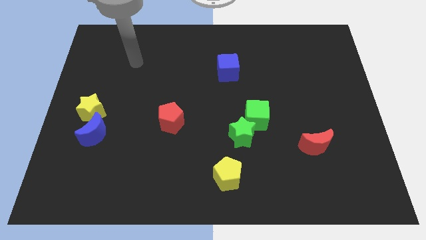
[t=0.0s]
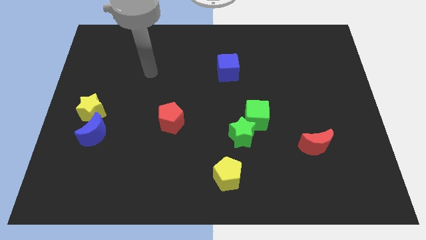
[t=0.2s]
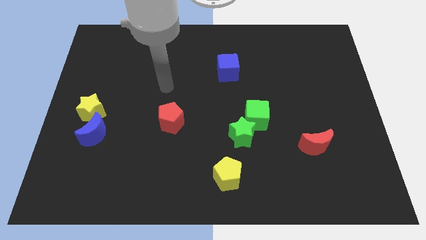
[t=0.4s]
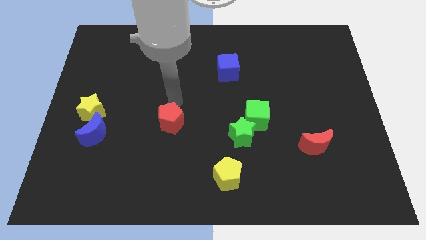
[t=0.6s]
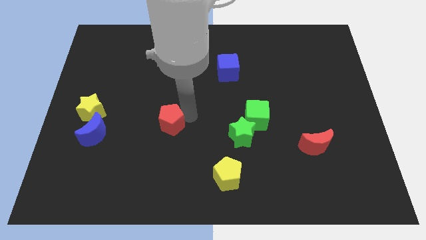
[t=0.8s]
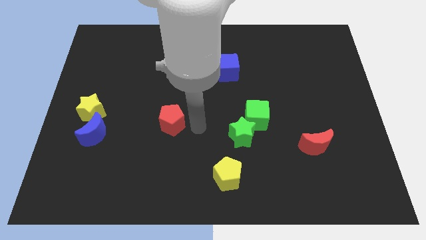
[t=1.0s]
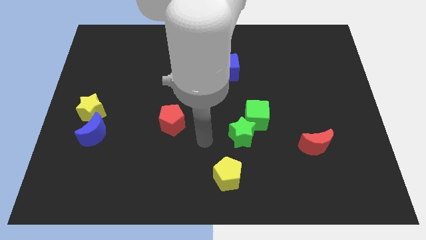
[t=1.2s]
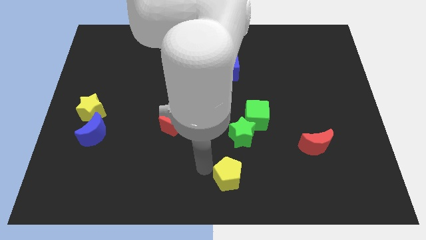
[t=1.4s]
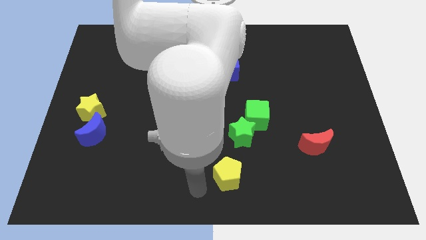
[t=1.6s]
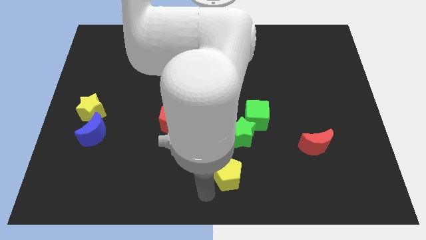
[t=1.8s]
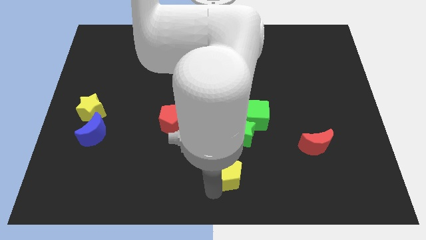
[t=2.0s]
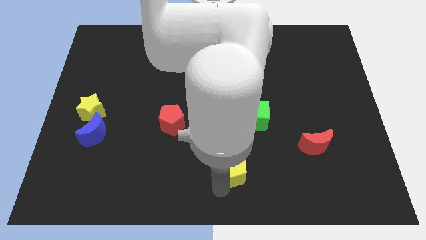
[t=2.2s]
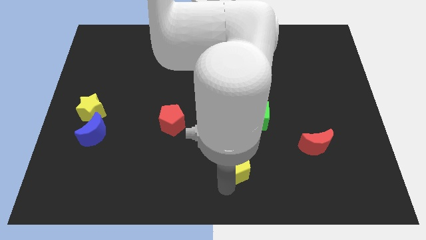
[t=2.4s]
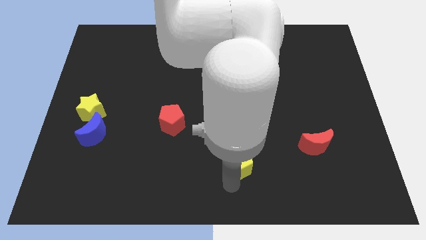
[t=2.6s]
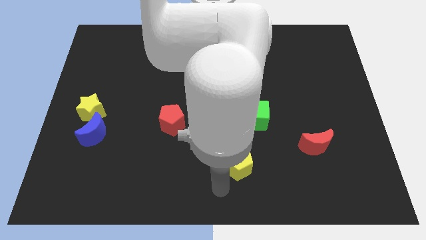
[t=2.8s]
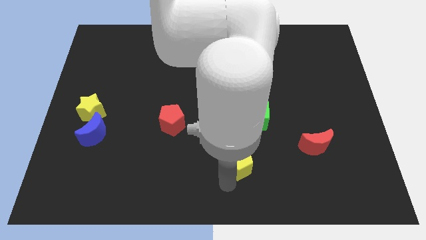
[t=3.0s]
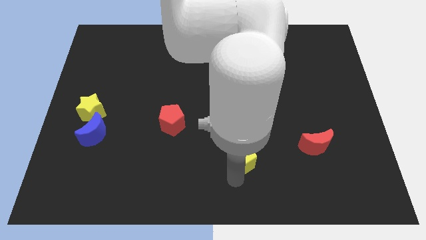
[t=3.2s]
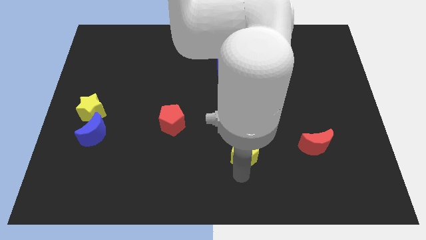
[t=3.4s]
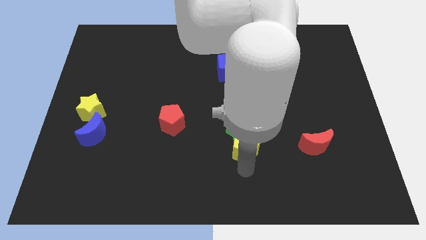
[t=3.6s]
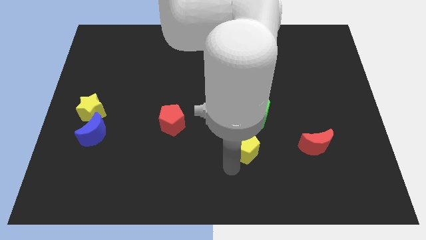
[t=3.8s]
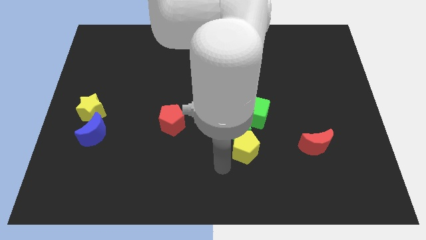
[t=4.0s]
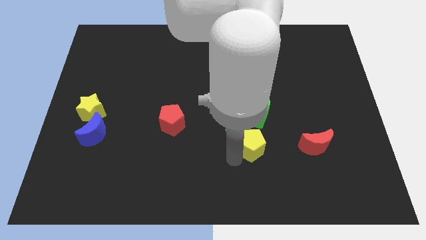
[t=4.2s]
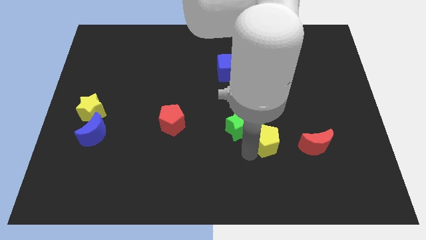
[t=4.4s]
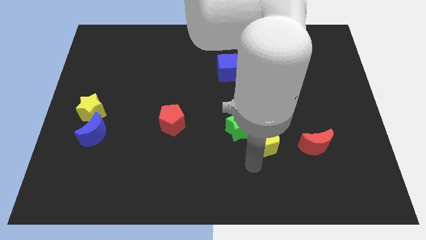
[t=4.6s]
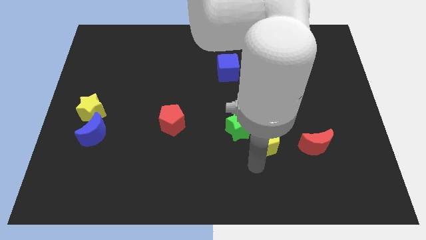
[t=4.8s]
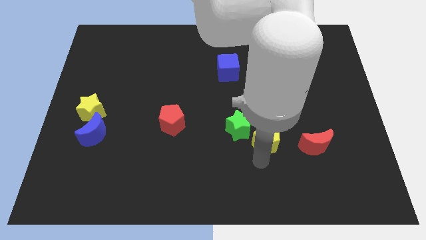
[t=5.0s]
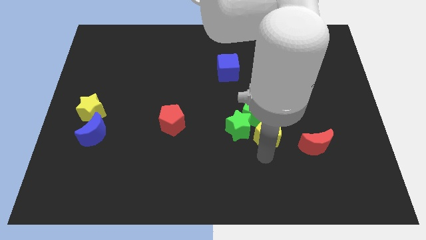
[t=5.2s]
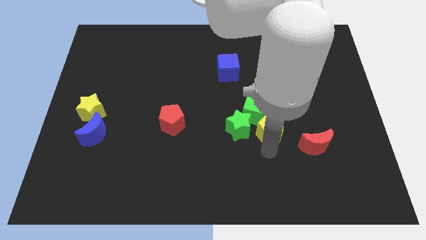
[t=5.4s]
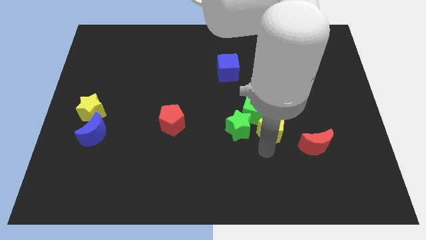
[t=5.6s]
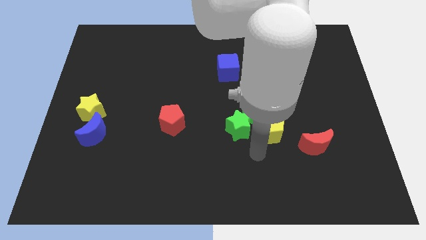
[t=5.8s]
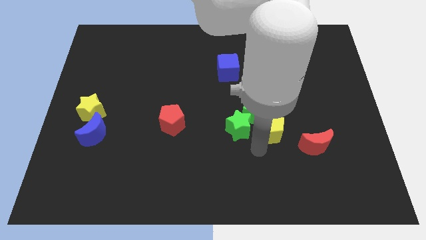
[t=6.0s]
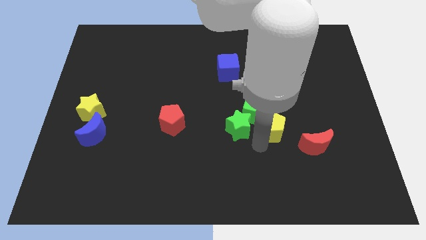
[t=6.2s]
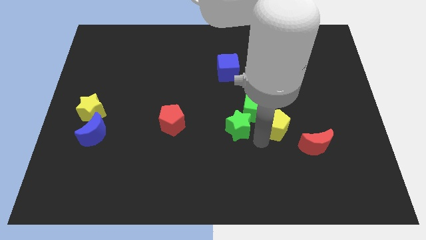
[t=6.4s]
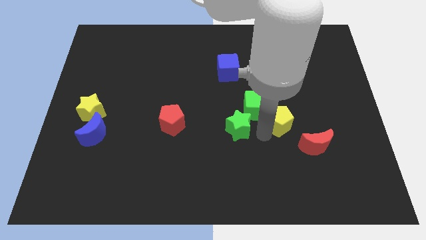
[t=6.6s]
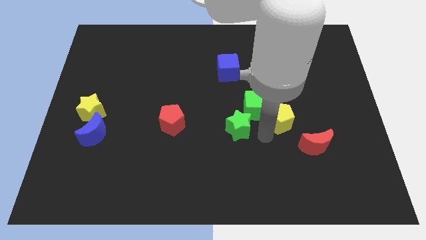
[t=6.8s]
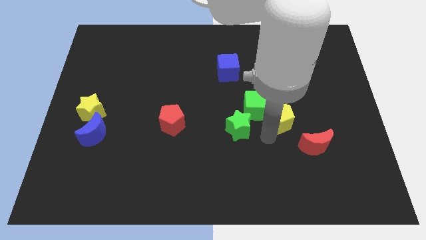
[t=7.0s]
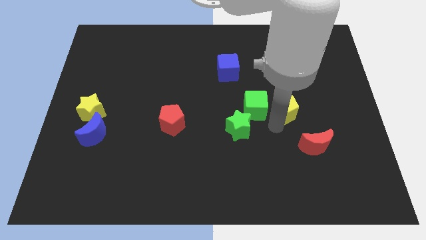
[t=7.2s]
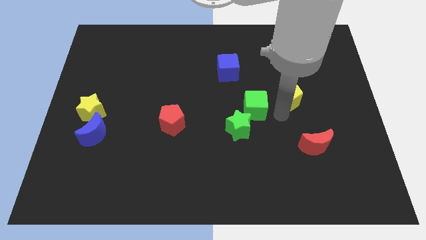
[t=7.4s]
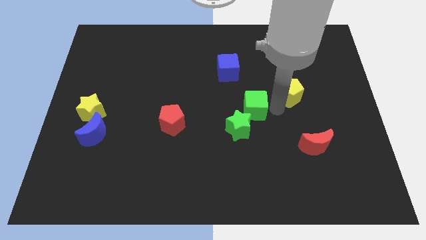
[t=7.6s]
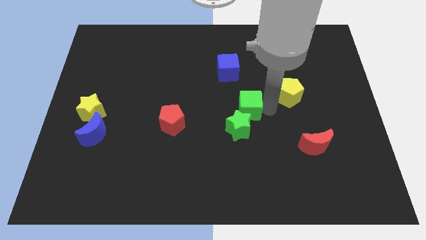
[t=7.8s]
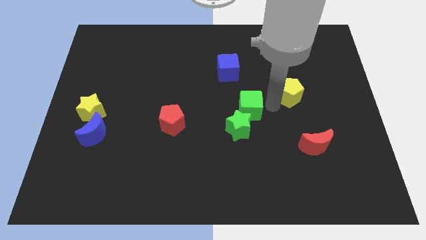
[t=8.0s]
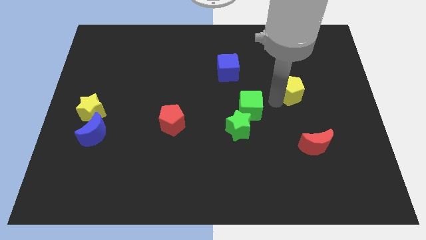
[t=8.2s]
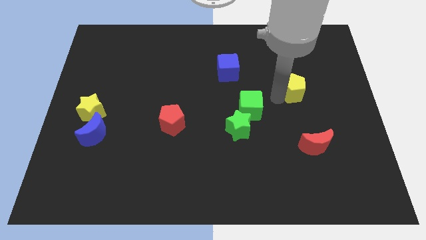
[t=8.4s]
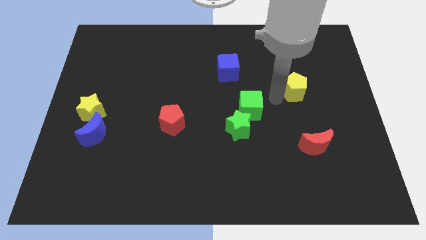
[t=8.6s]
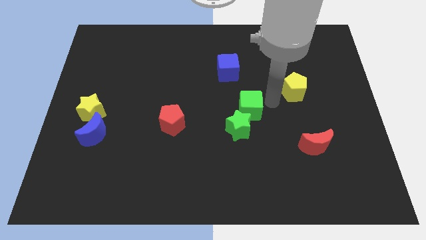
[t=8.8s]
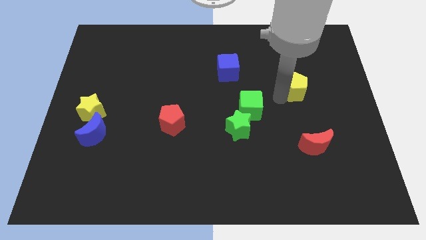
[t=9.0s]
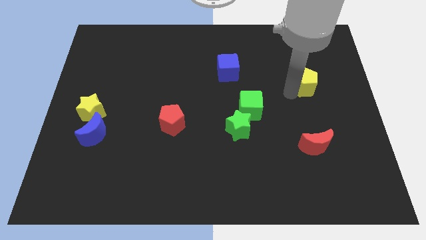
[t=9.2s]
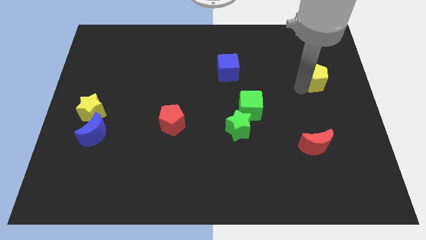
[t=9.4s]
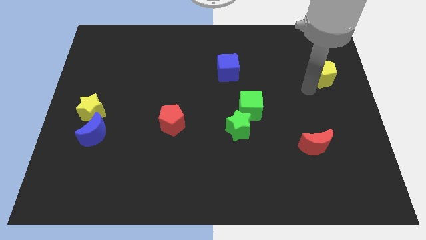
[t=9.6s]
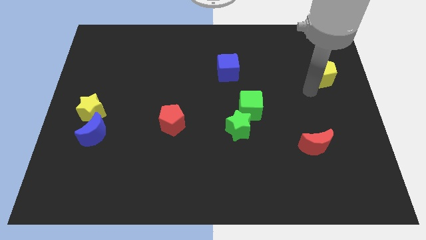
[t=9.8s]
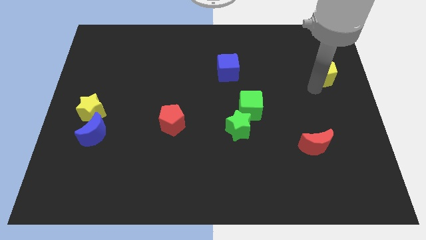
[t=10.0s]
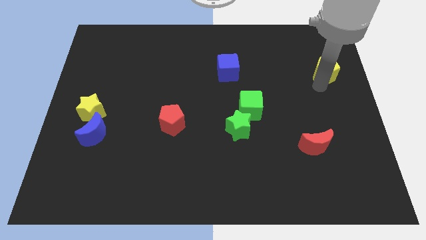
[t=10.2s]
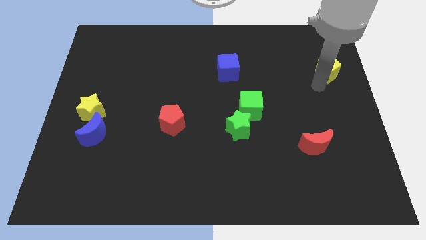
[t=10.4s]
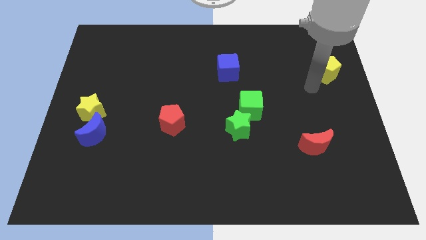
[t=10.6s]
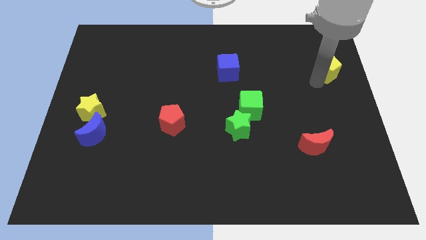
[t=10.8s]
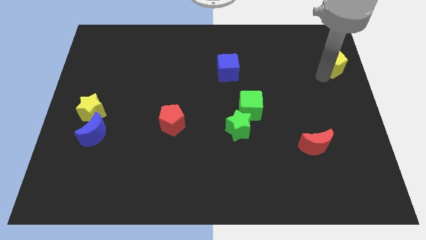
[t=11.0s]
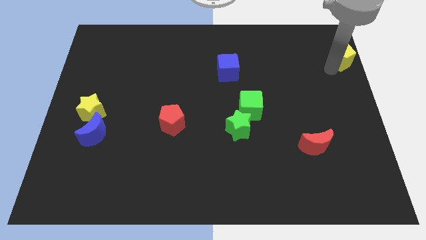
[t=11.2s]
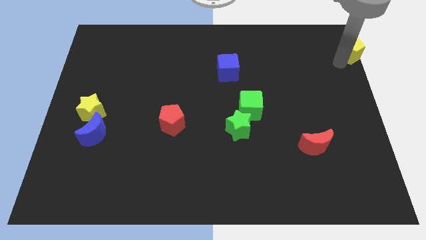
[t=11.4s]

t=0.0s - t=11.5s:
slide the yellow pentagon to the top right

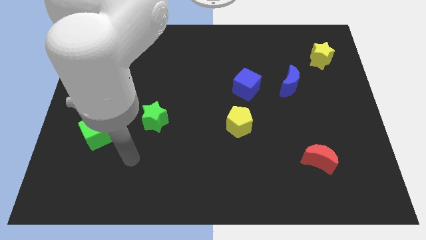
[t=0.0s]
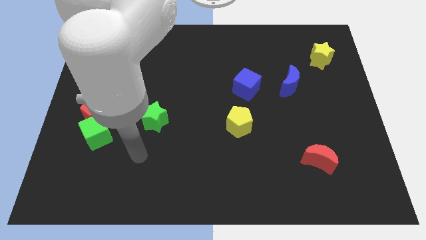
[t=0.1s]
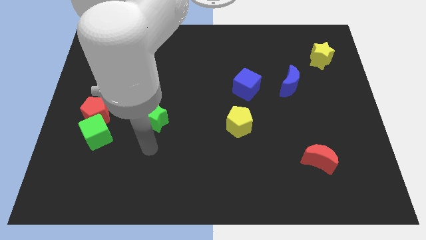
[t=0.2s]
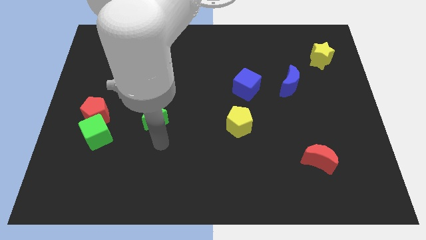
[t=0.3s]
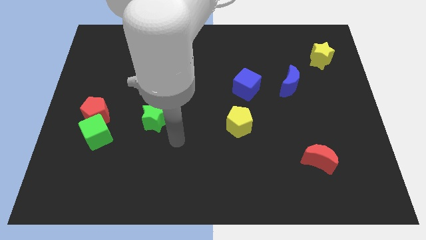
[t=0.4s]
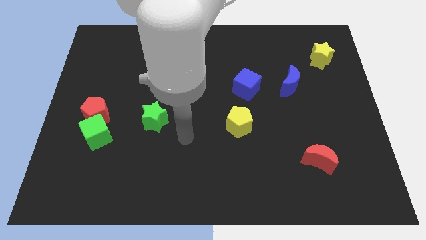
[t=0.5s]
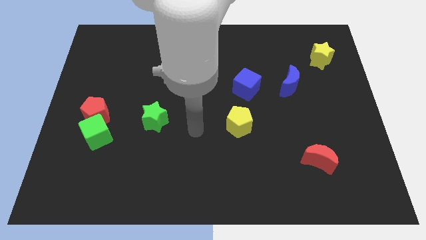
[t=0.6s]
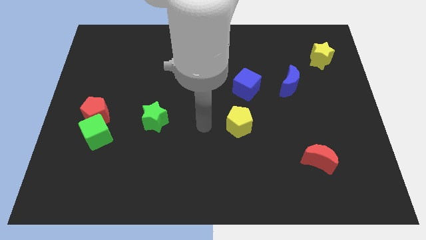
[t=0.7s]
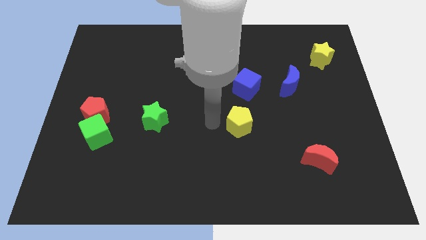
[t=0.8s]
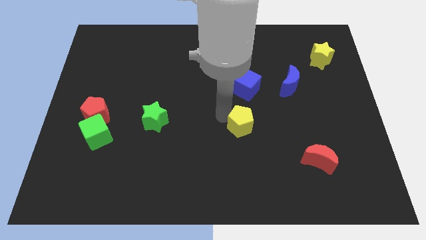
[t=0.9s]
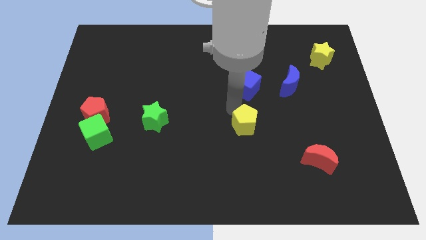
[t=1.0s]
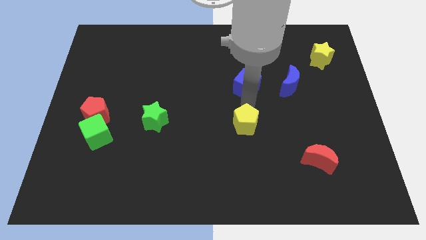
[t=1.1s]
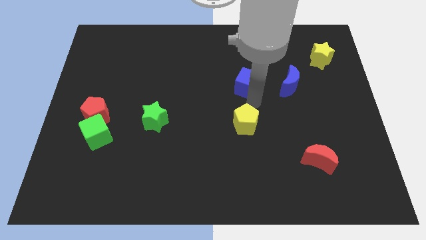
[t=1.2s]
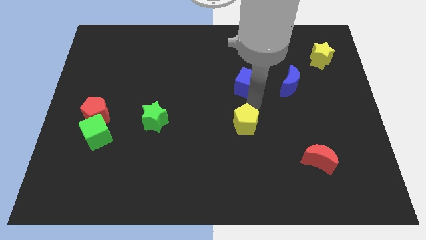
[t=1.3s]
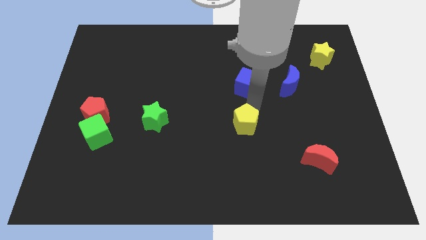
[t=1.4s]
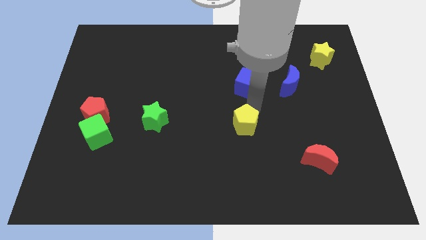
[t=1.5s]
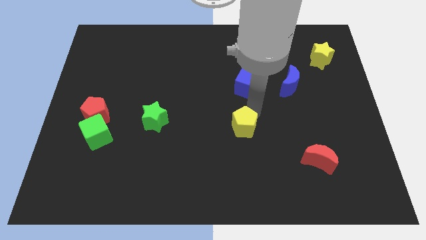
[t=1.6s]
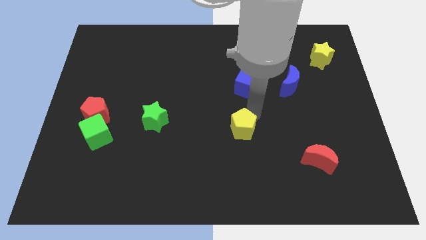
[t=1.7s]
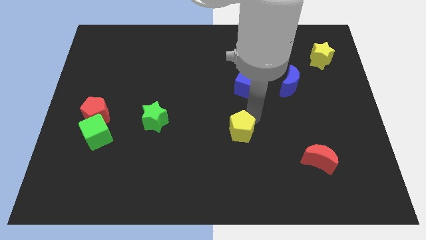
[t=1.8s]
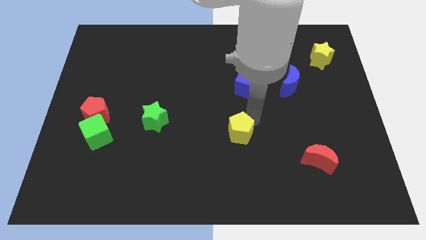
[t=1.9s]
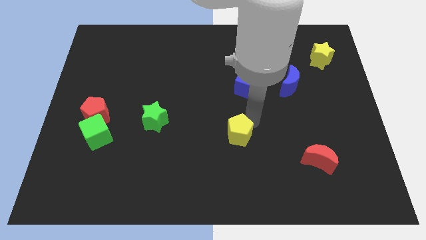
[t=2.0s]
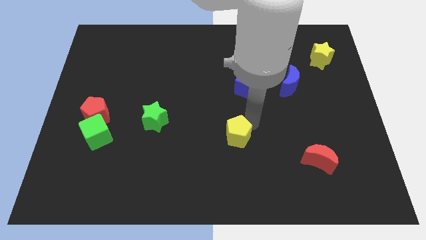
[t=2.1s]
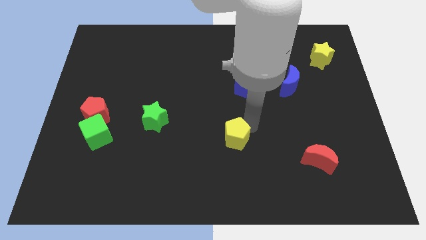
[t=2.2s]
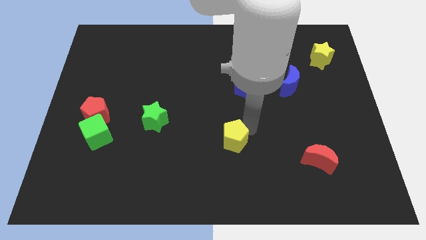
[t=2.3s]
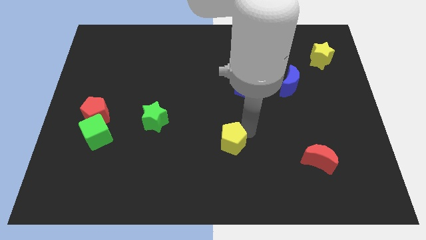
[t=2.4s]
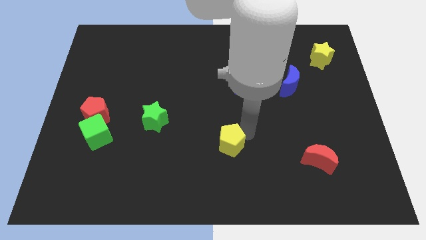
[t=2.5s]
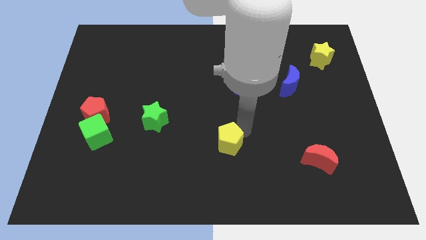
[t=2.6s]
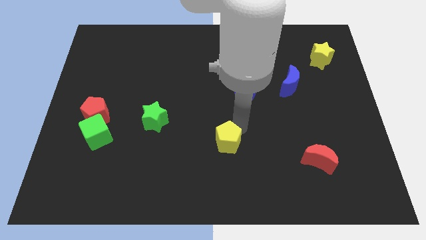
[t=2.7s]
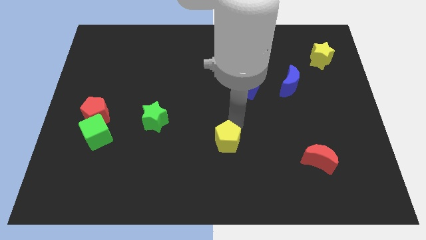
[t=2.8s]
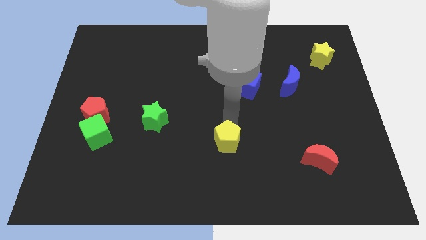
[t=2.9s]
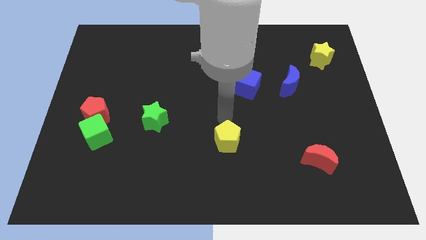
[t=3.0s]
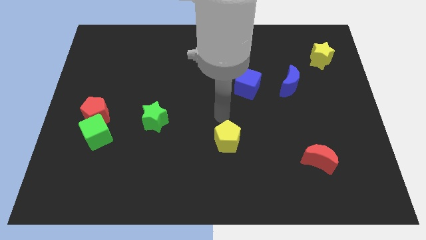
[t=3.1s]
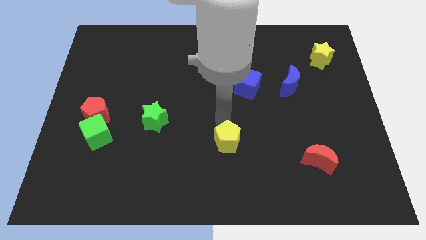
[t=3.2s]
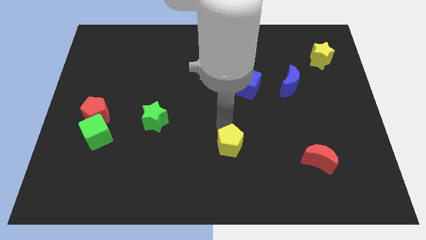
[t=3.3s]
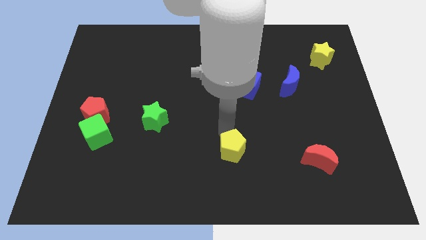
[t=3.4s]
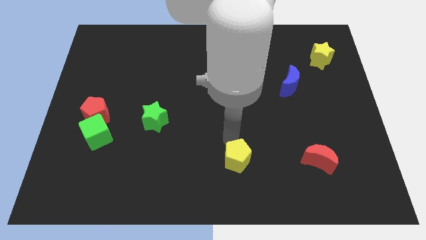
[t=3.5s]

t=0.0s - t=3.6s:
push the yellow pentagon to the bottom
